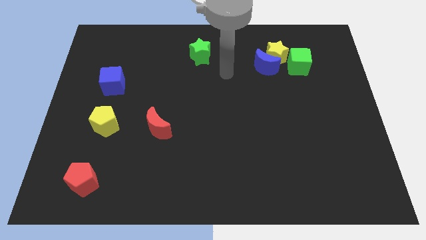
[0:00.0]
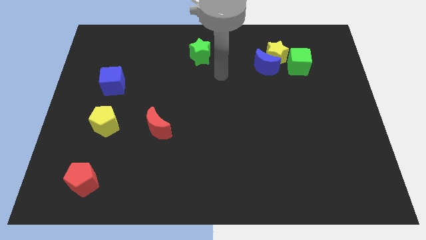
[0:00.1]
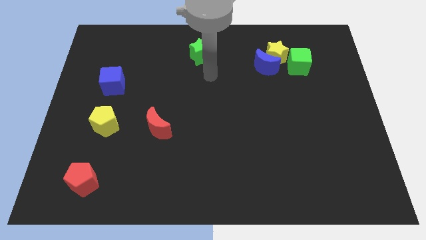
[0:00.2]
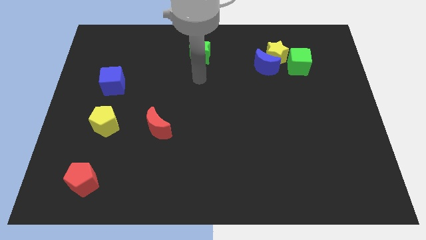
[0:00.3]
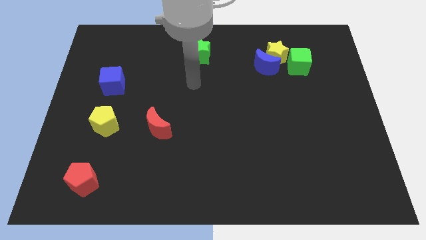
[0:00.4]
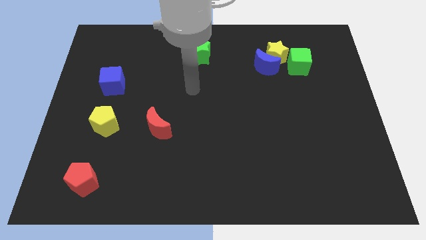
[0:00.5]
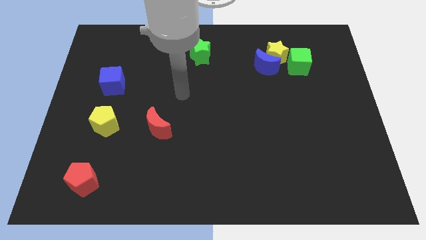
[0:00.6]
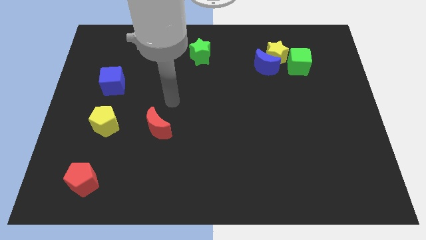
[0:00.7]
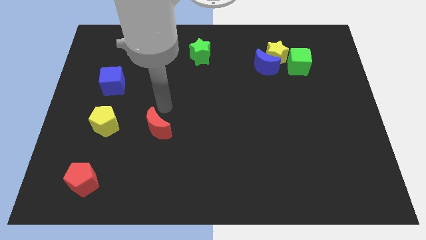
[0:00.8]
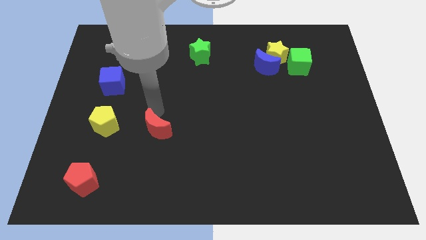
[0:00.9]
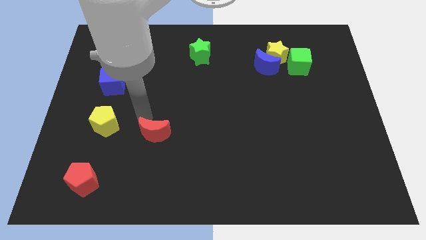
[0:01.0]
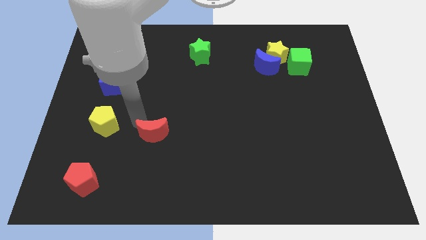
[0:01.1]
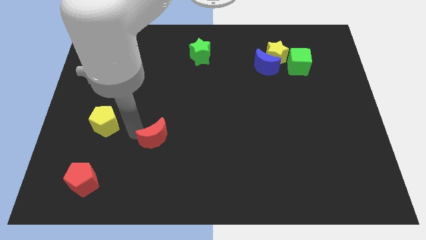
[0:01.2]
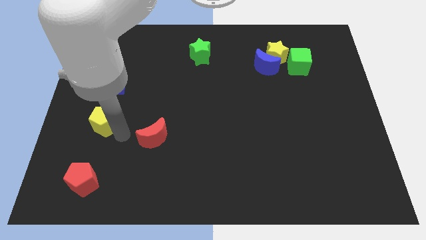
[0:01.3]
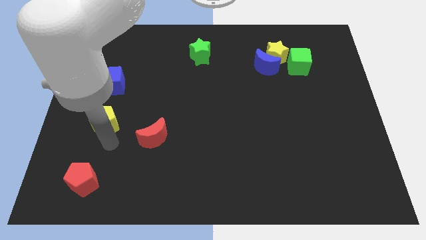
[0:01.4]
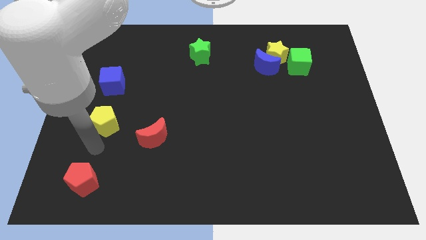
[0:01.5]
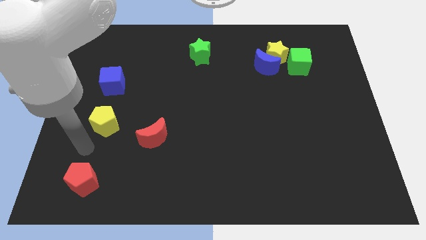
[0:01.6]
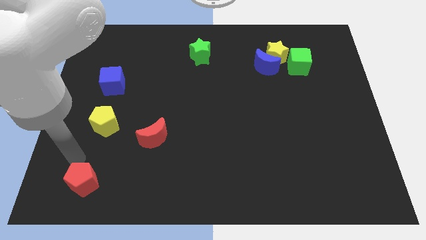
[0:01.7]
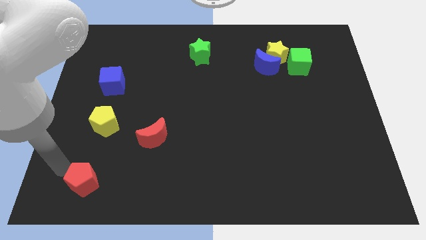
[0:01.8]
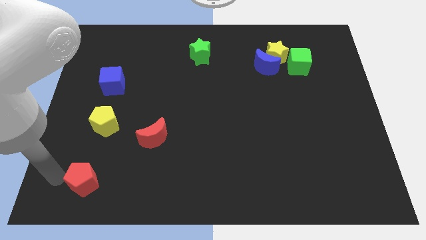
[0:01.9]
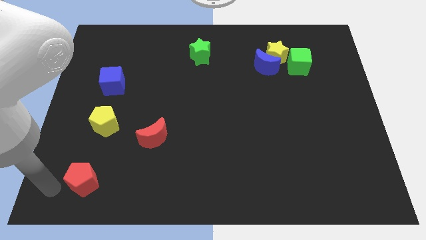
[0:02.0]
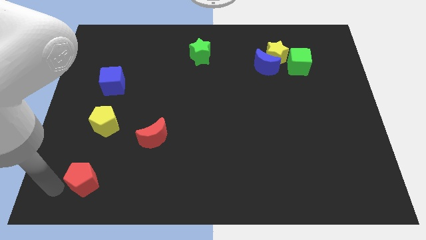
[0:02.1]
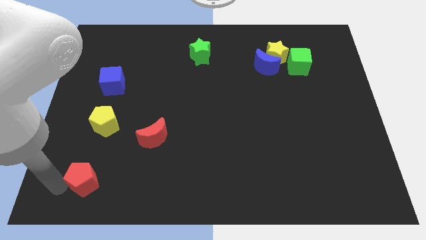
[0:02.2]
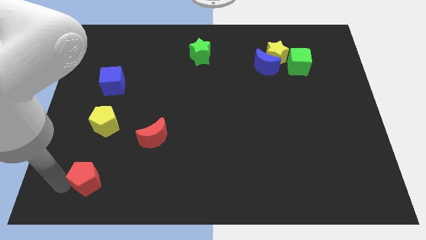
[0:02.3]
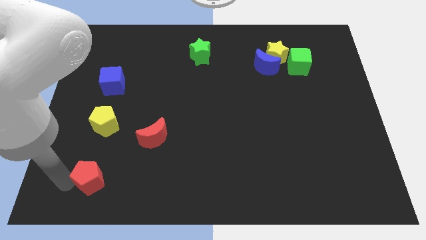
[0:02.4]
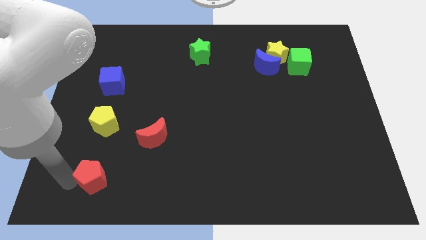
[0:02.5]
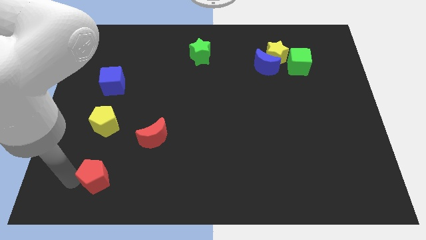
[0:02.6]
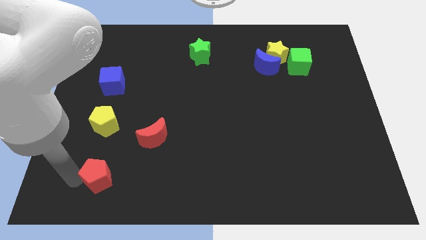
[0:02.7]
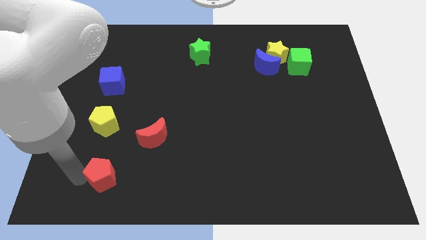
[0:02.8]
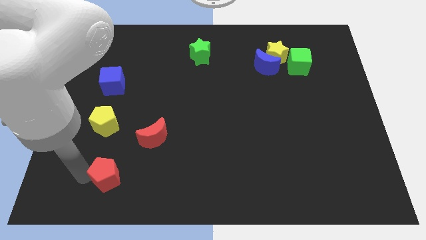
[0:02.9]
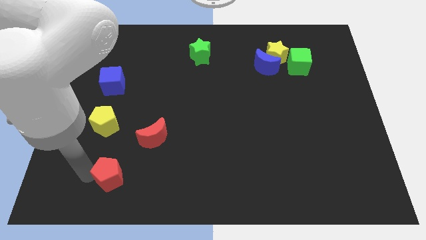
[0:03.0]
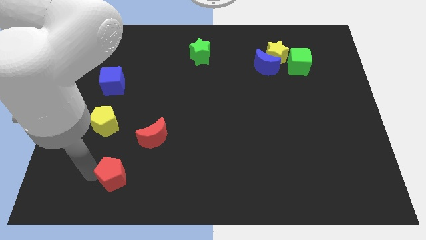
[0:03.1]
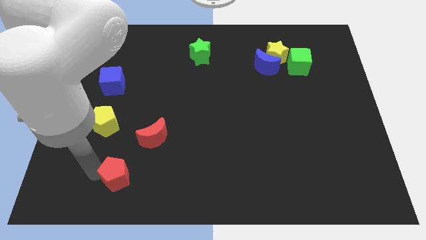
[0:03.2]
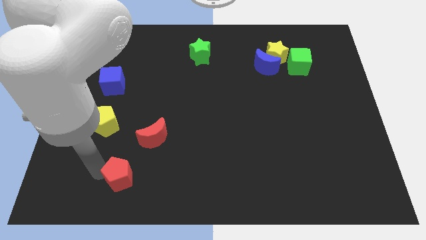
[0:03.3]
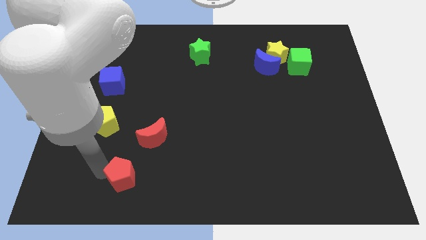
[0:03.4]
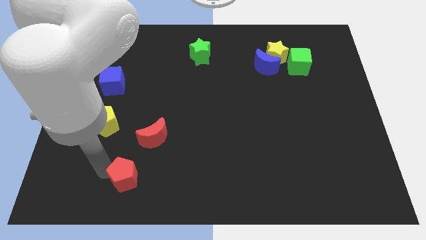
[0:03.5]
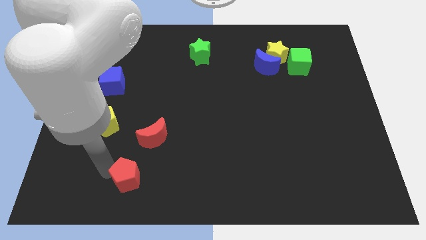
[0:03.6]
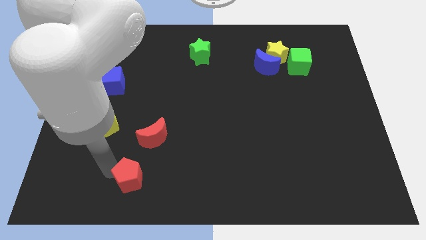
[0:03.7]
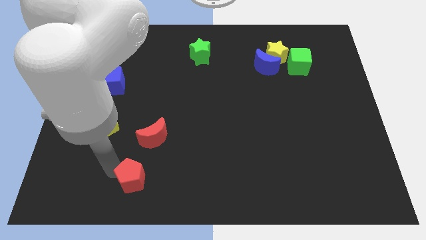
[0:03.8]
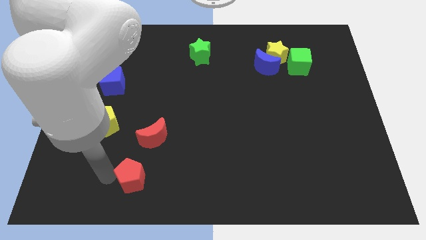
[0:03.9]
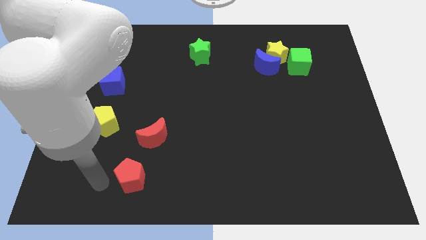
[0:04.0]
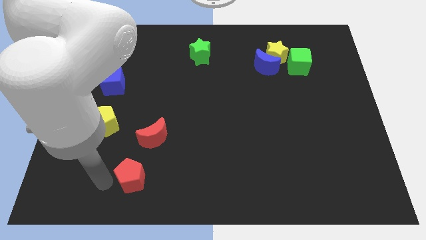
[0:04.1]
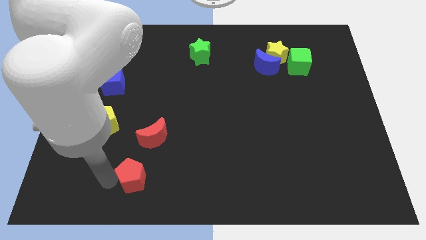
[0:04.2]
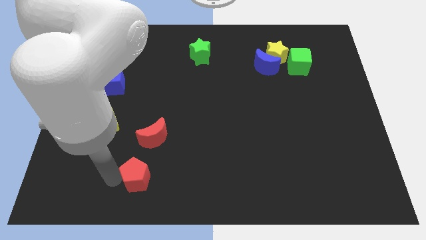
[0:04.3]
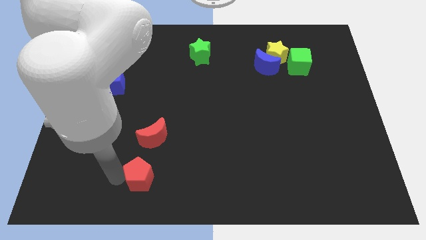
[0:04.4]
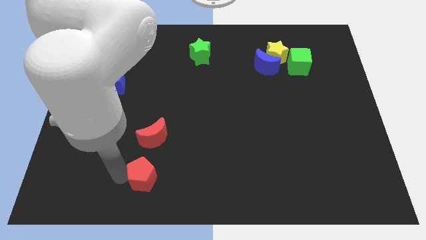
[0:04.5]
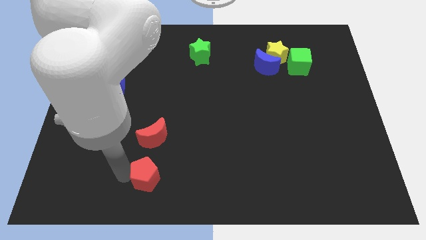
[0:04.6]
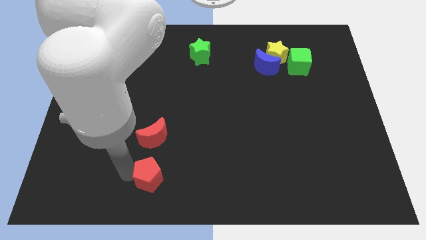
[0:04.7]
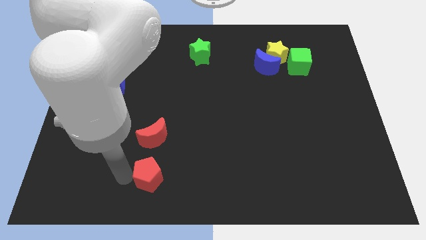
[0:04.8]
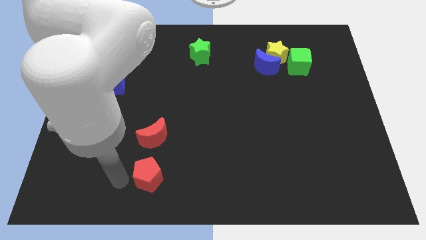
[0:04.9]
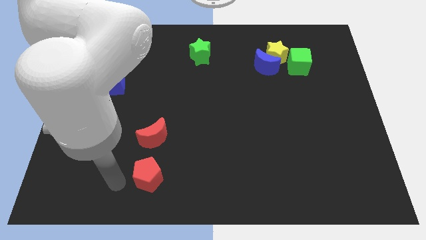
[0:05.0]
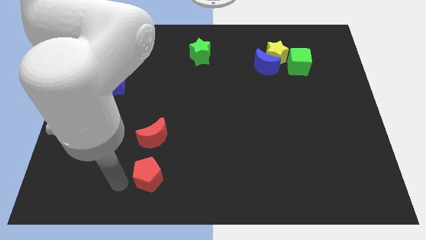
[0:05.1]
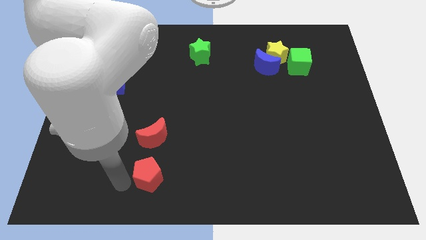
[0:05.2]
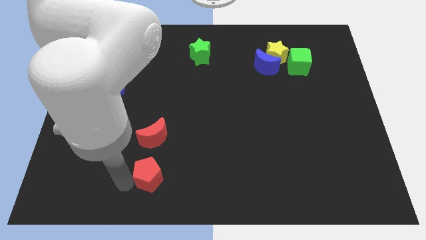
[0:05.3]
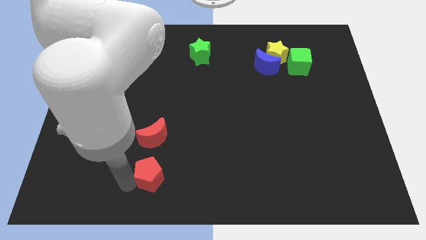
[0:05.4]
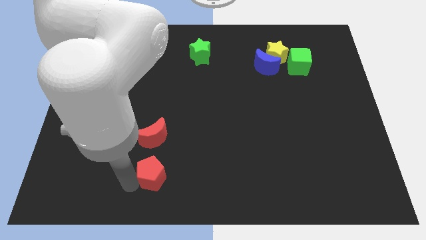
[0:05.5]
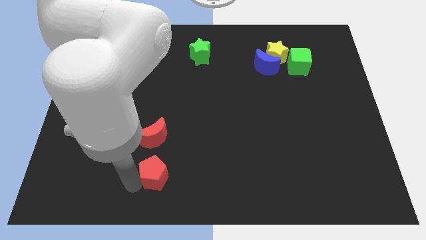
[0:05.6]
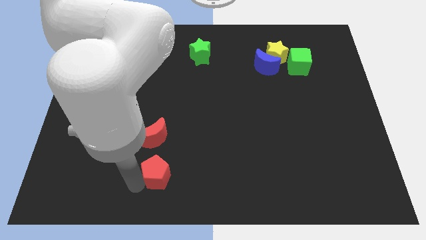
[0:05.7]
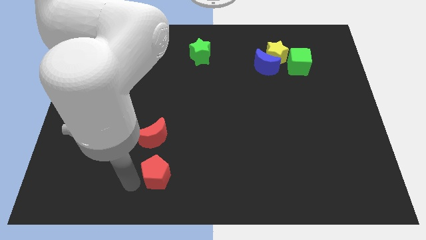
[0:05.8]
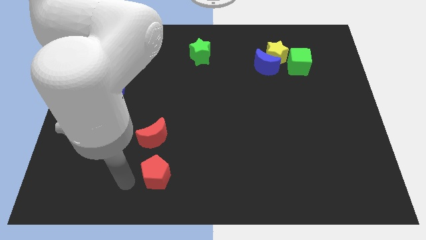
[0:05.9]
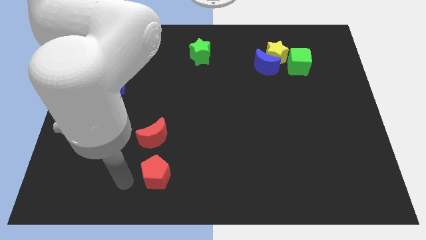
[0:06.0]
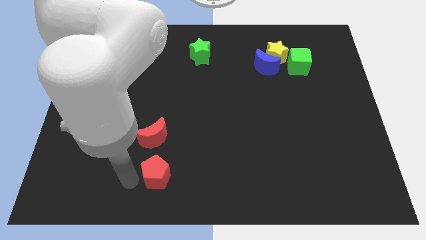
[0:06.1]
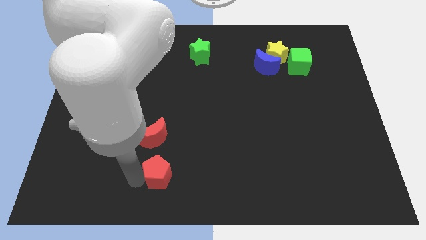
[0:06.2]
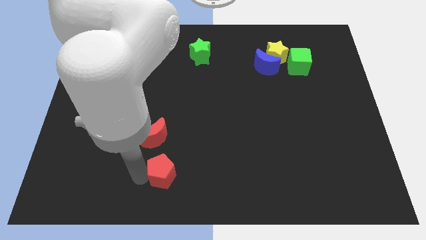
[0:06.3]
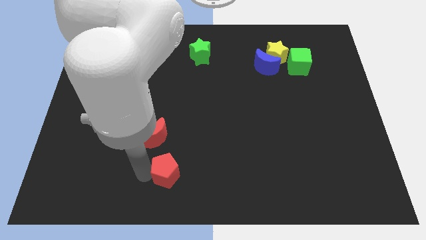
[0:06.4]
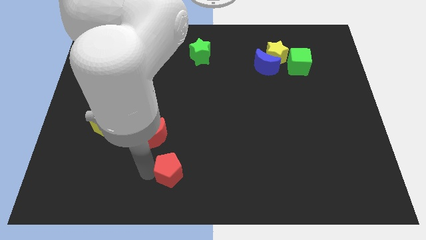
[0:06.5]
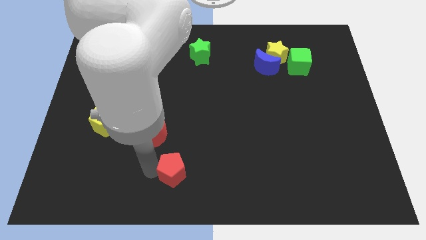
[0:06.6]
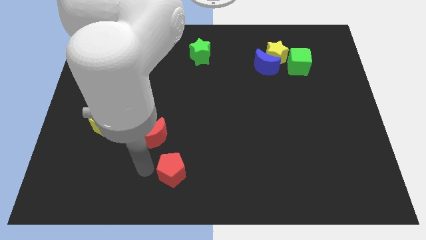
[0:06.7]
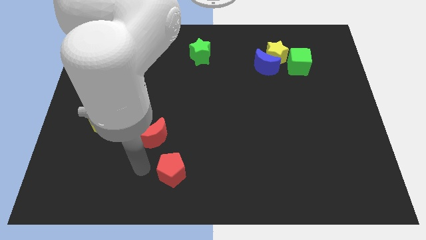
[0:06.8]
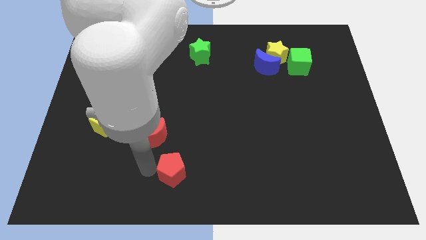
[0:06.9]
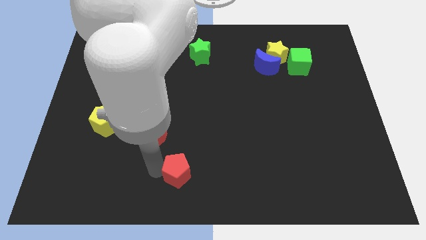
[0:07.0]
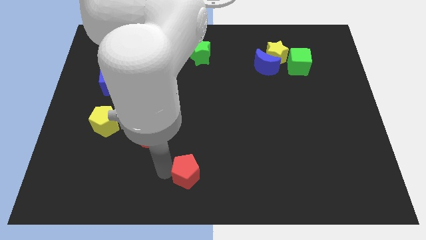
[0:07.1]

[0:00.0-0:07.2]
move the red pentagon to the right

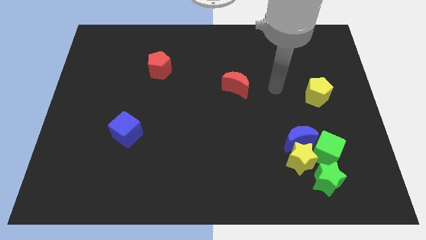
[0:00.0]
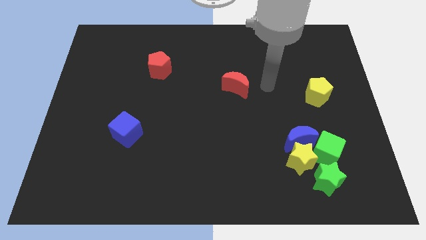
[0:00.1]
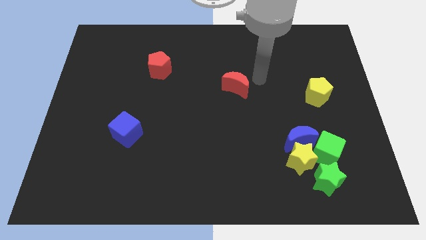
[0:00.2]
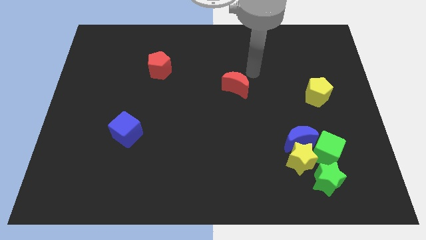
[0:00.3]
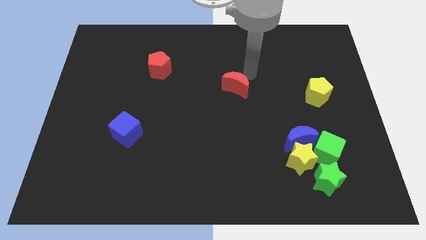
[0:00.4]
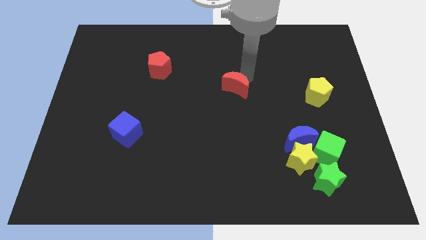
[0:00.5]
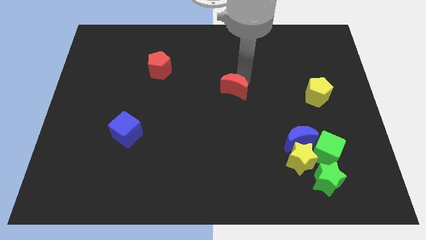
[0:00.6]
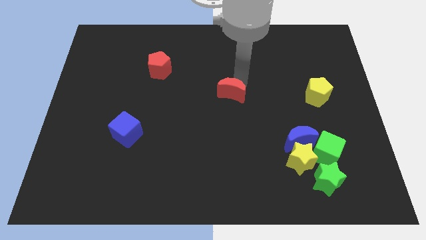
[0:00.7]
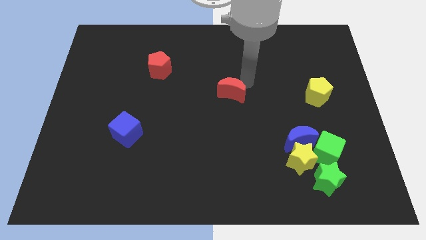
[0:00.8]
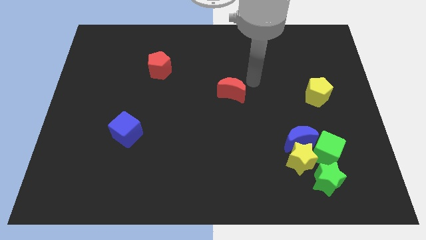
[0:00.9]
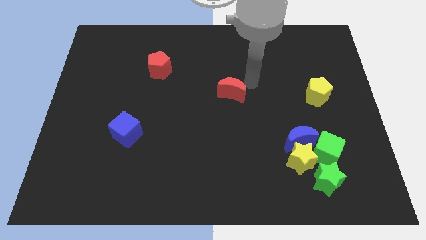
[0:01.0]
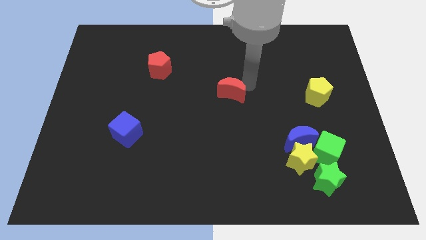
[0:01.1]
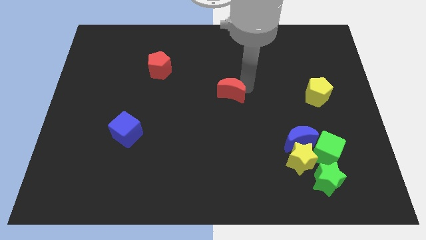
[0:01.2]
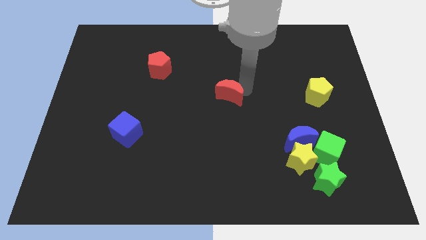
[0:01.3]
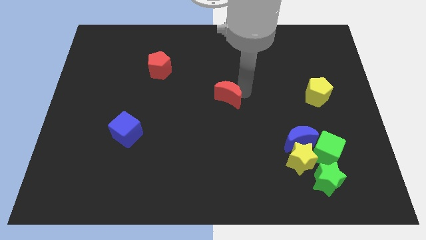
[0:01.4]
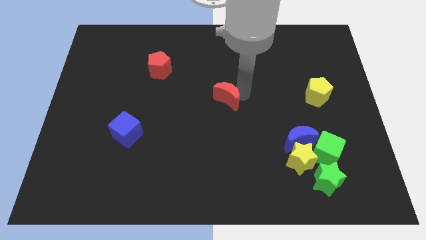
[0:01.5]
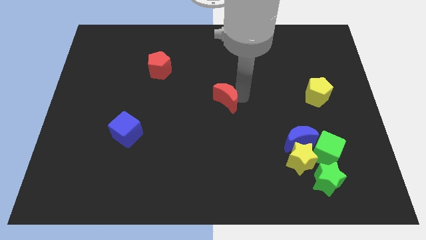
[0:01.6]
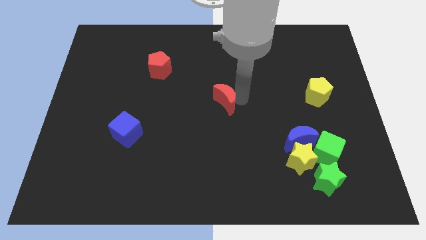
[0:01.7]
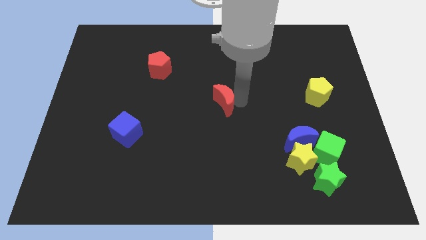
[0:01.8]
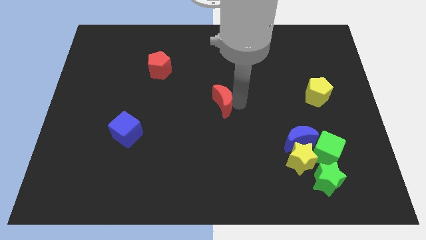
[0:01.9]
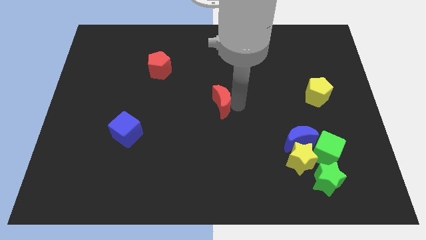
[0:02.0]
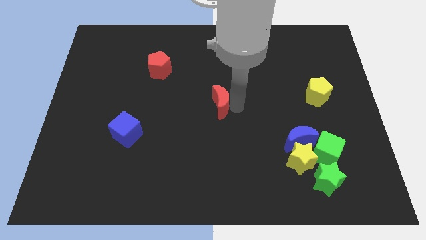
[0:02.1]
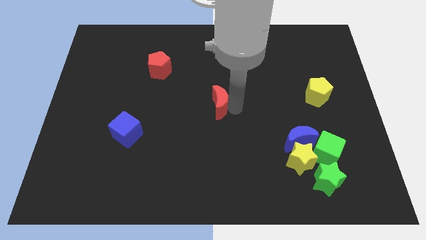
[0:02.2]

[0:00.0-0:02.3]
slightly move the red moon down and to the left diagonally
